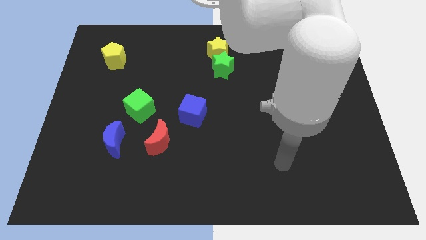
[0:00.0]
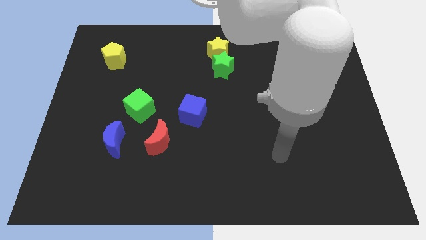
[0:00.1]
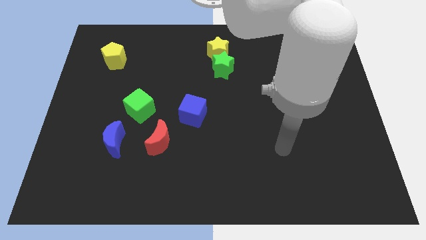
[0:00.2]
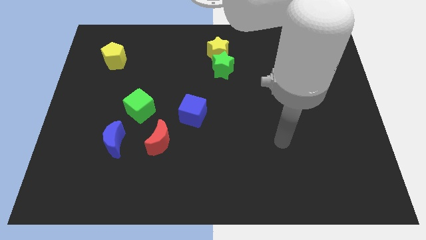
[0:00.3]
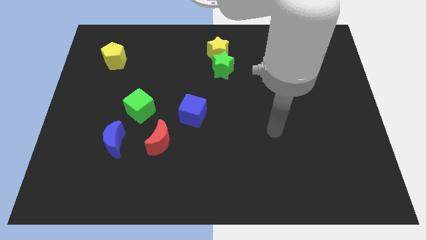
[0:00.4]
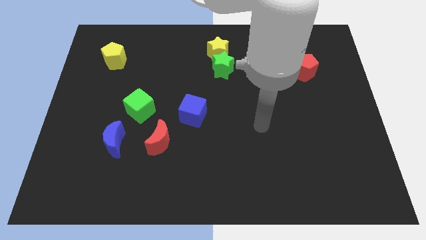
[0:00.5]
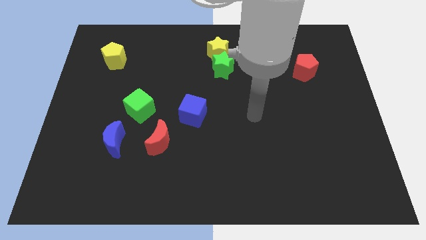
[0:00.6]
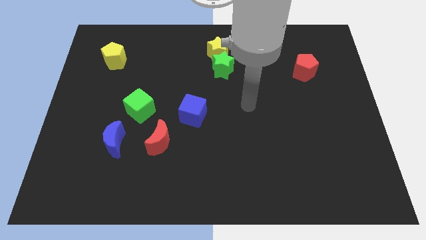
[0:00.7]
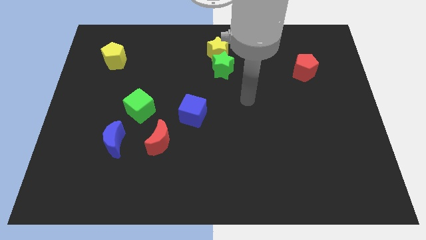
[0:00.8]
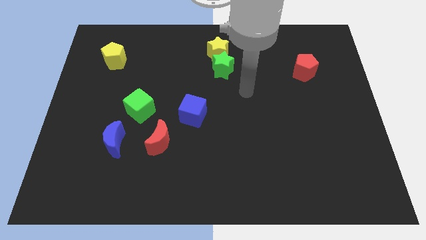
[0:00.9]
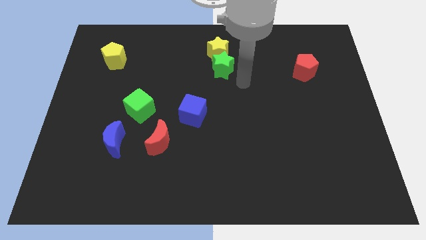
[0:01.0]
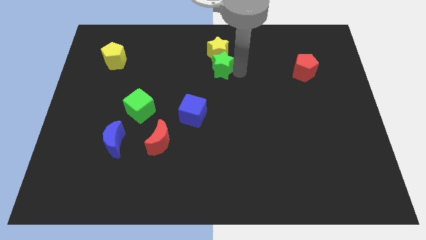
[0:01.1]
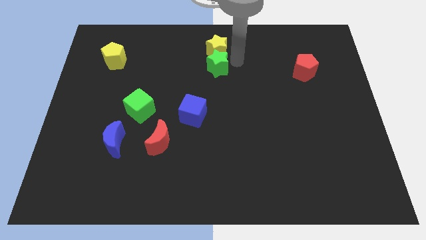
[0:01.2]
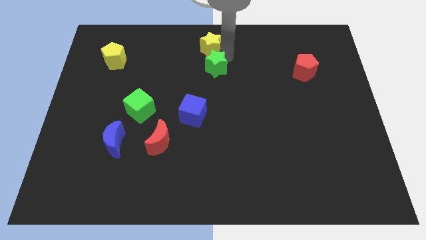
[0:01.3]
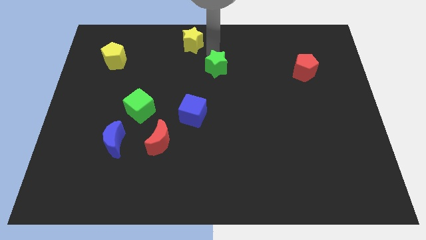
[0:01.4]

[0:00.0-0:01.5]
move the green star away from the yellow star

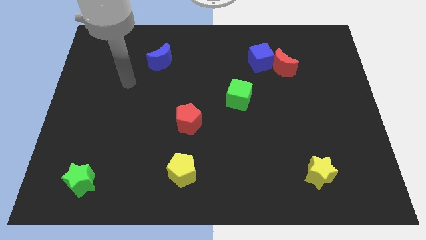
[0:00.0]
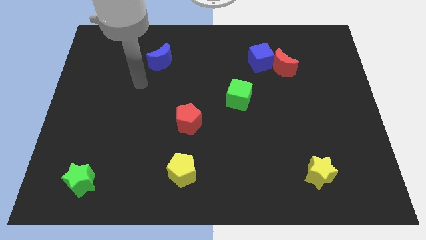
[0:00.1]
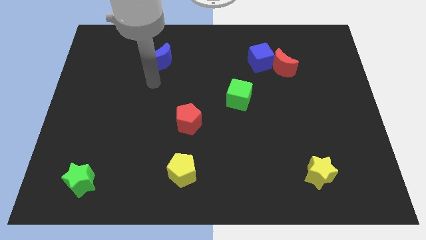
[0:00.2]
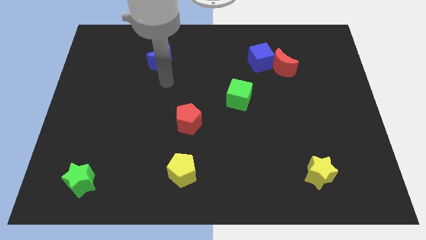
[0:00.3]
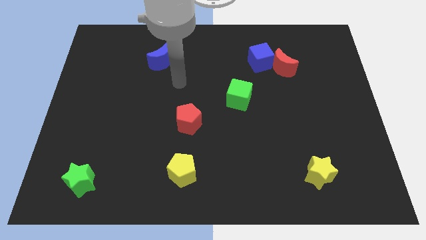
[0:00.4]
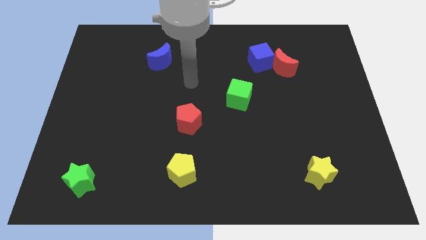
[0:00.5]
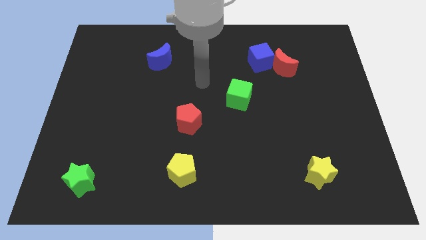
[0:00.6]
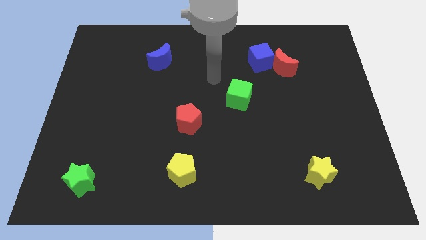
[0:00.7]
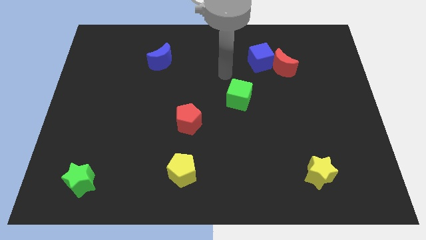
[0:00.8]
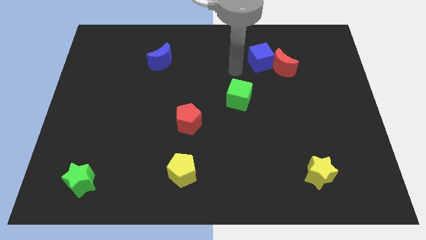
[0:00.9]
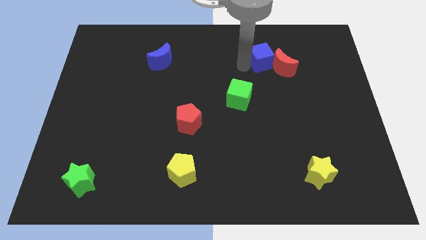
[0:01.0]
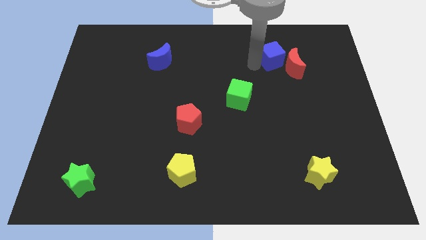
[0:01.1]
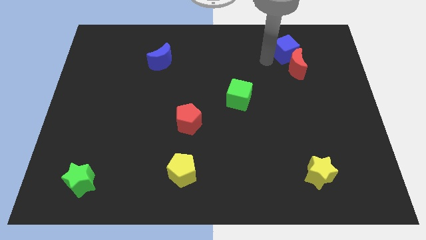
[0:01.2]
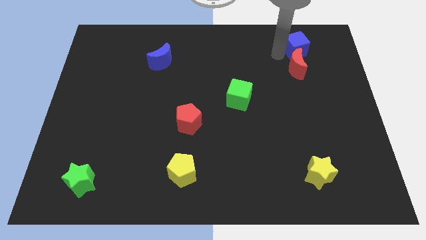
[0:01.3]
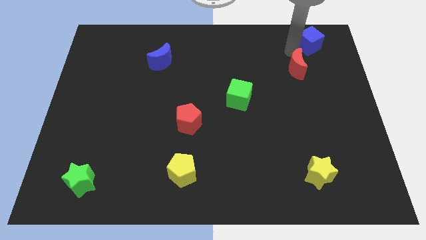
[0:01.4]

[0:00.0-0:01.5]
move the red moon away from the blue cube

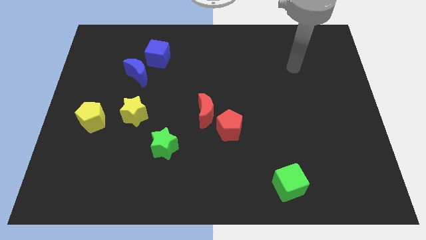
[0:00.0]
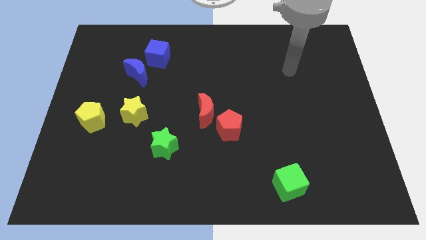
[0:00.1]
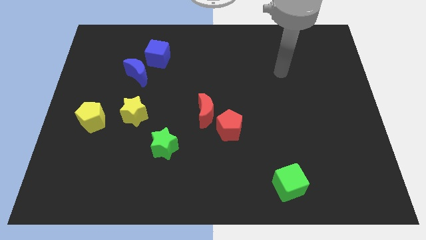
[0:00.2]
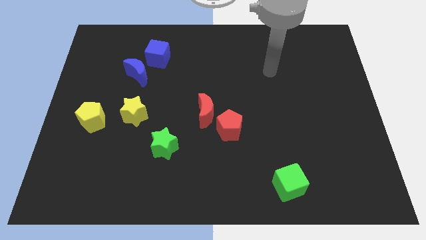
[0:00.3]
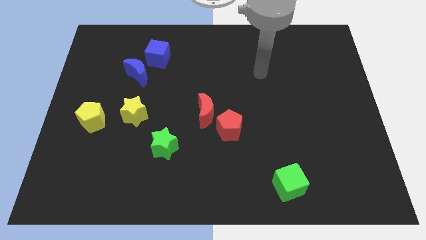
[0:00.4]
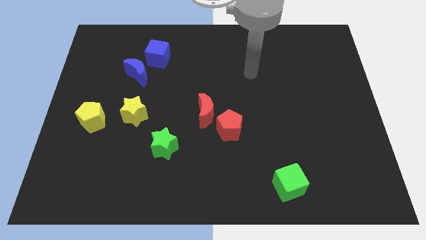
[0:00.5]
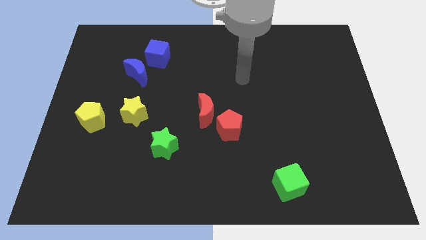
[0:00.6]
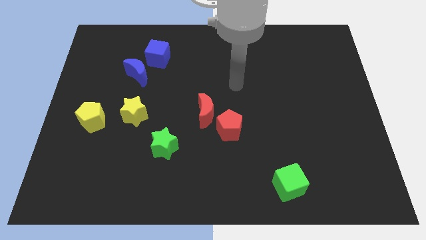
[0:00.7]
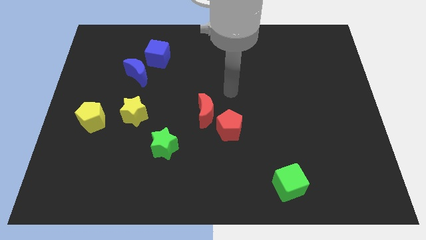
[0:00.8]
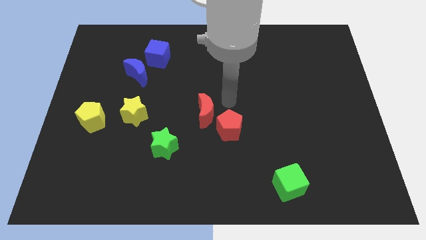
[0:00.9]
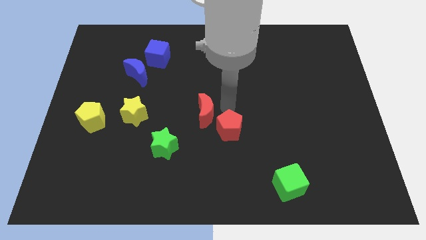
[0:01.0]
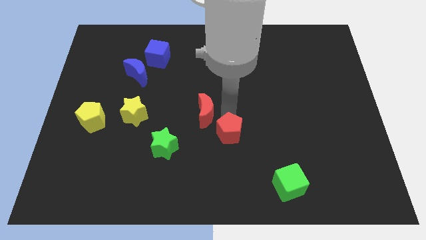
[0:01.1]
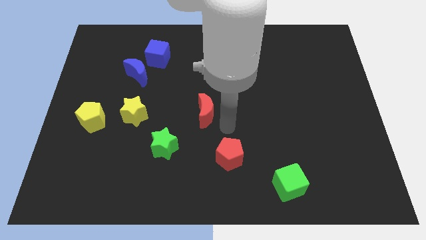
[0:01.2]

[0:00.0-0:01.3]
separate the red moon from the red pentagon

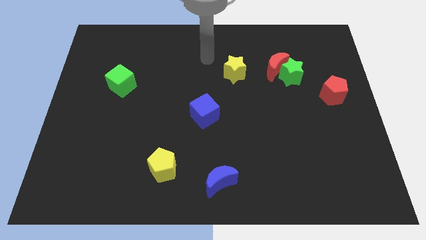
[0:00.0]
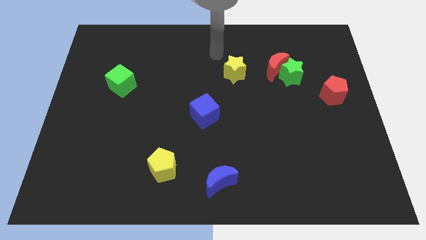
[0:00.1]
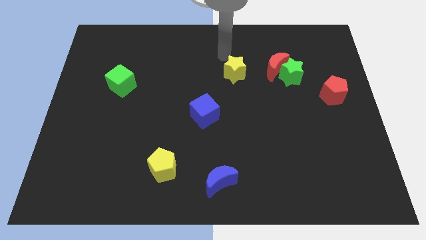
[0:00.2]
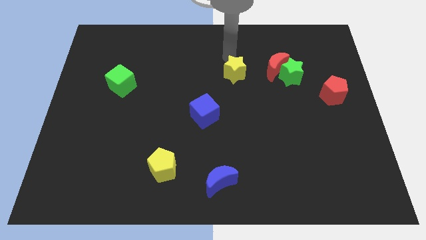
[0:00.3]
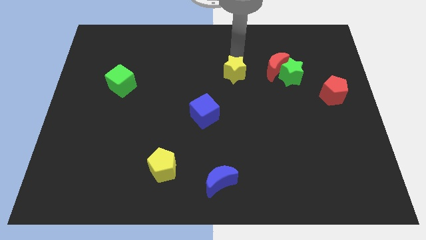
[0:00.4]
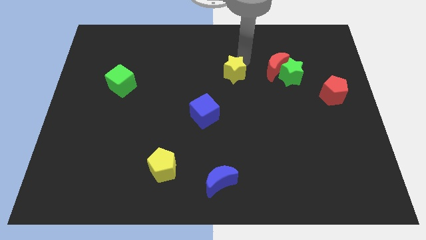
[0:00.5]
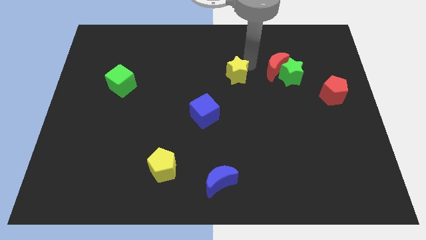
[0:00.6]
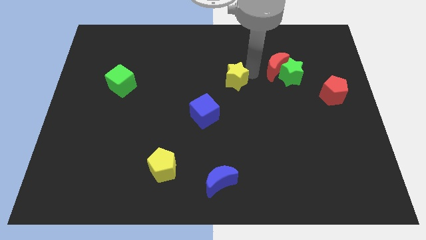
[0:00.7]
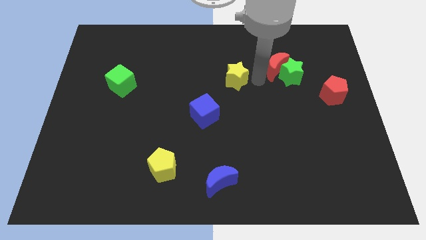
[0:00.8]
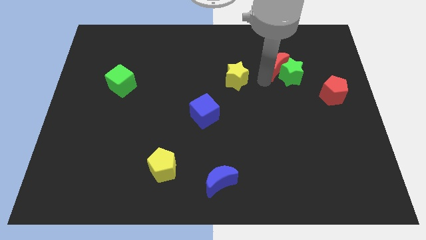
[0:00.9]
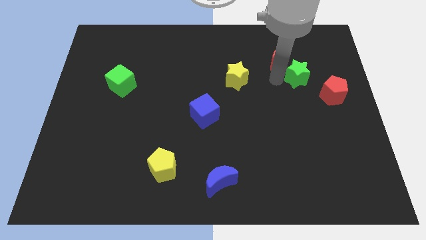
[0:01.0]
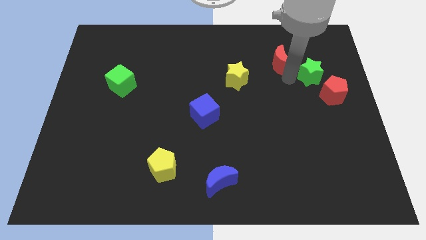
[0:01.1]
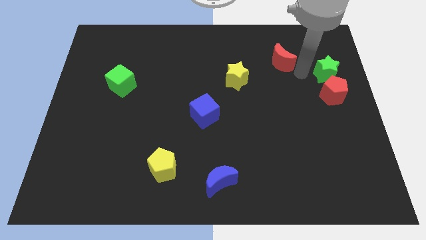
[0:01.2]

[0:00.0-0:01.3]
separate the red moon from the green star

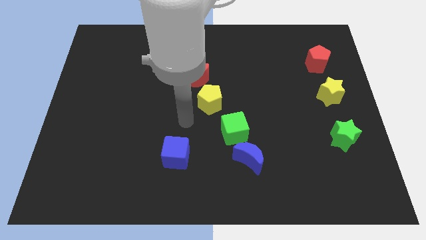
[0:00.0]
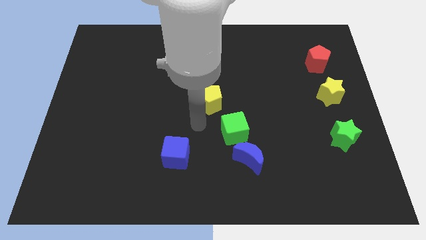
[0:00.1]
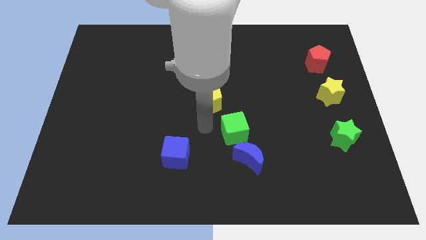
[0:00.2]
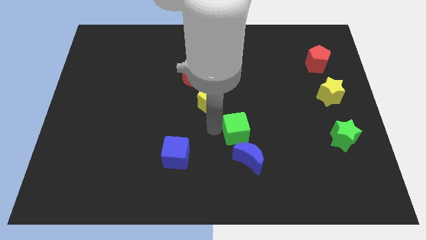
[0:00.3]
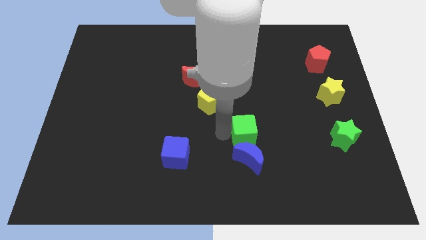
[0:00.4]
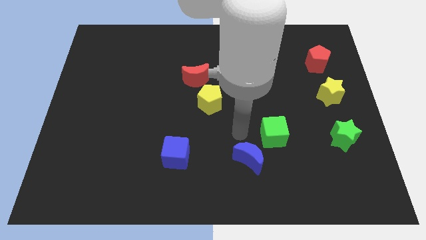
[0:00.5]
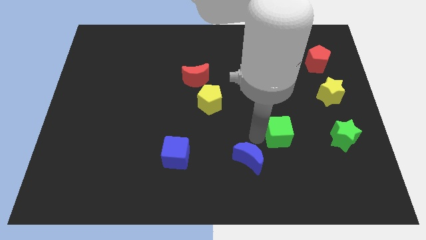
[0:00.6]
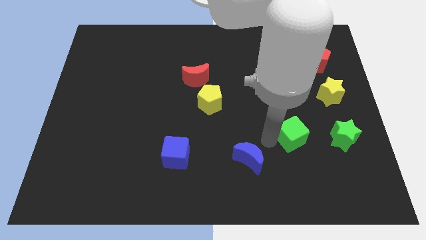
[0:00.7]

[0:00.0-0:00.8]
pull the blue moon apart from the green cube

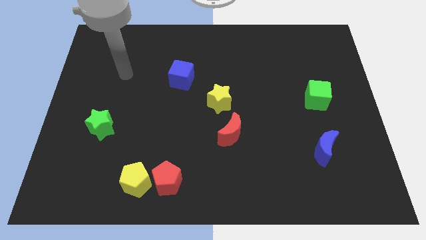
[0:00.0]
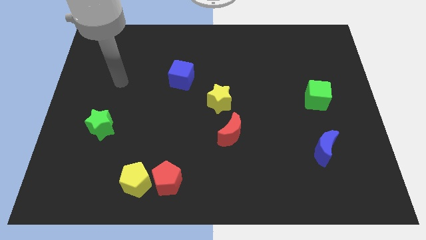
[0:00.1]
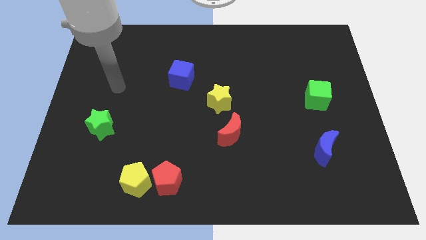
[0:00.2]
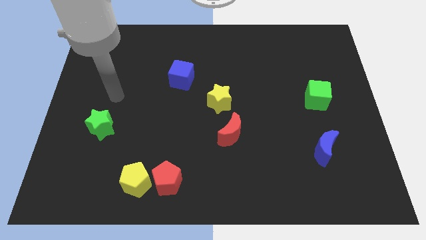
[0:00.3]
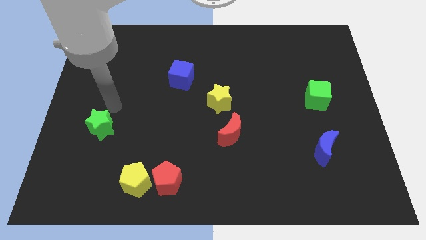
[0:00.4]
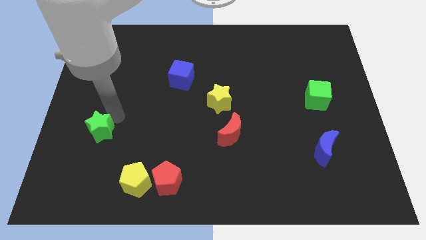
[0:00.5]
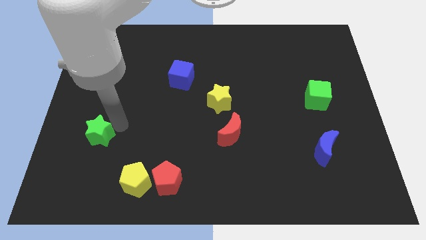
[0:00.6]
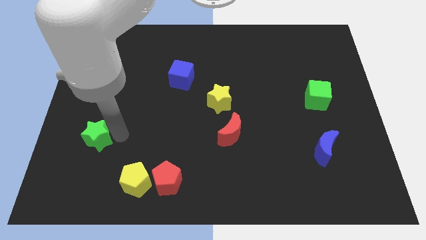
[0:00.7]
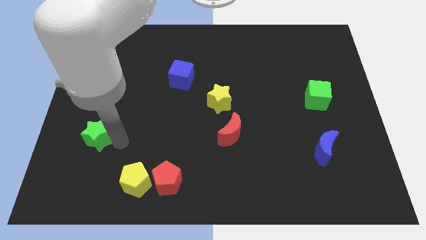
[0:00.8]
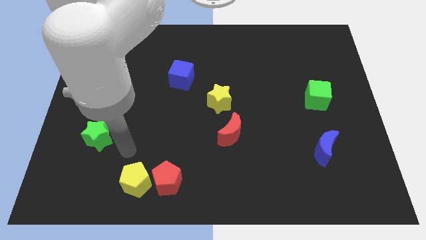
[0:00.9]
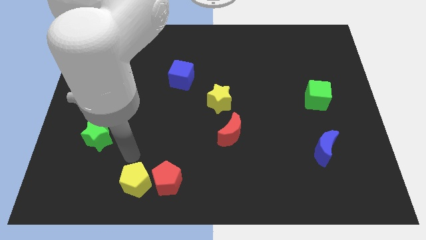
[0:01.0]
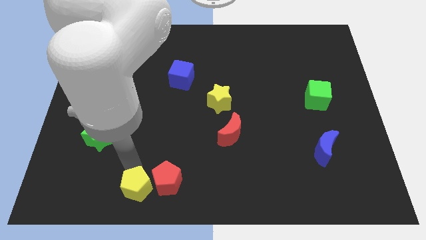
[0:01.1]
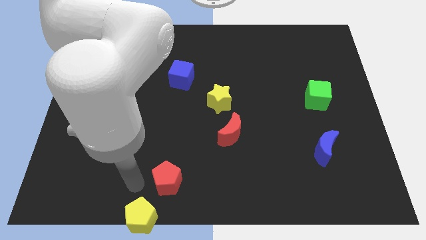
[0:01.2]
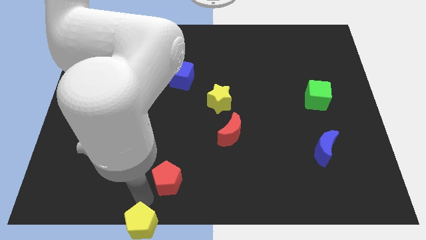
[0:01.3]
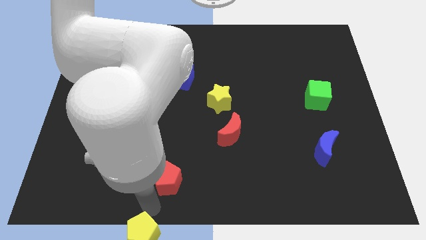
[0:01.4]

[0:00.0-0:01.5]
pull the red pentagon apart from the yellow pentagon

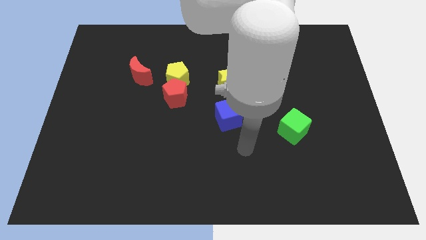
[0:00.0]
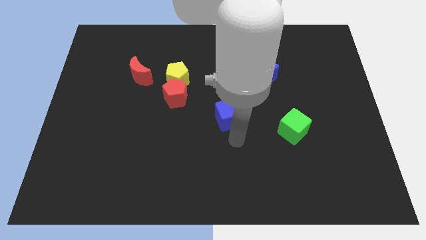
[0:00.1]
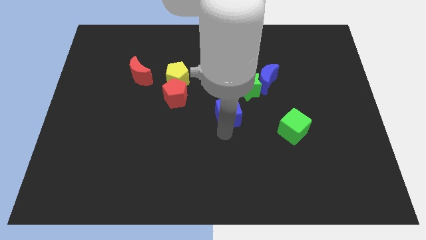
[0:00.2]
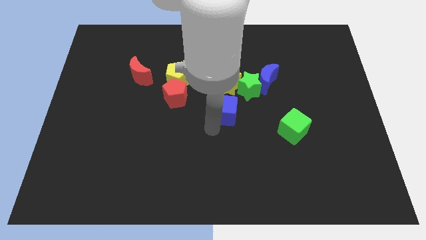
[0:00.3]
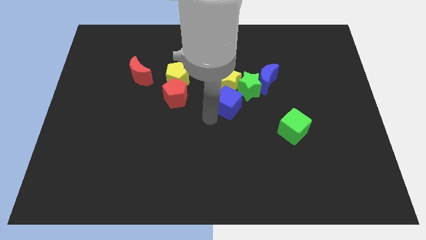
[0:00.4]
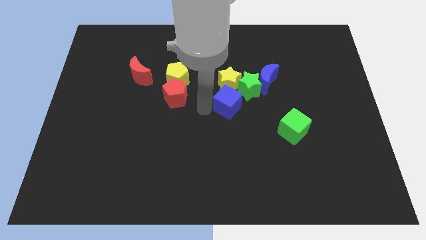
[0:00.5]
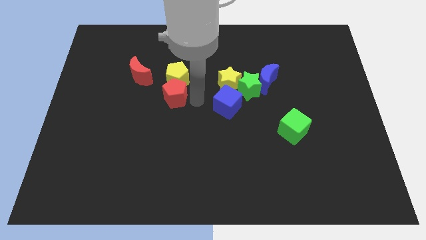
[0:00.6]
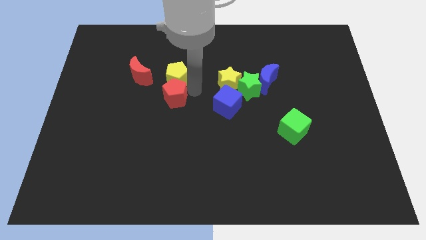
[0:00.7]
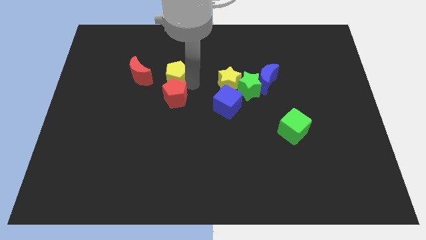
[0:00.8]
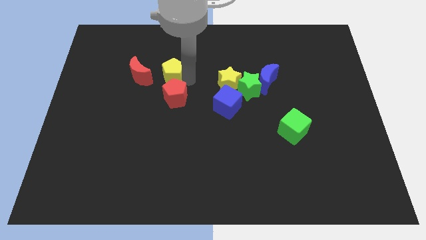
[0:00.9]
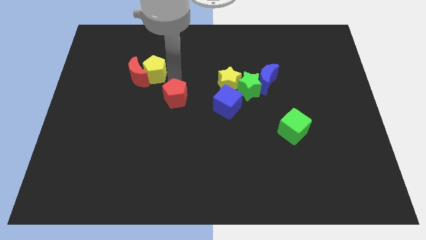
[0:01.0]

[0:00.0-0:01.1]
move the red pentagon away from the yellow pentagon

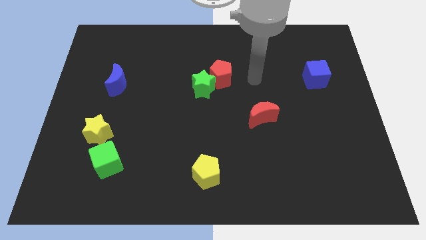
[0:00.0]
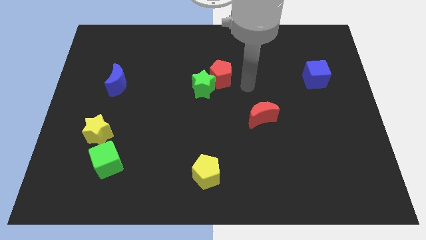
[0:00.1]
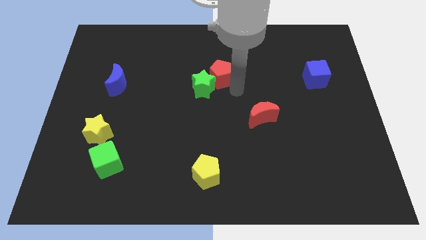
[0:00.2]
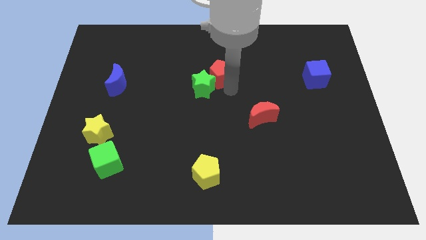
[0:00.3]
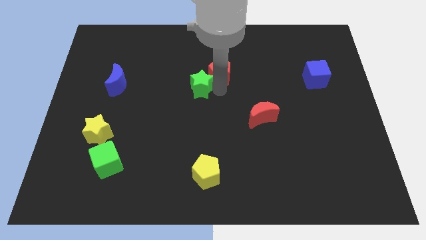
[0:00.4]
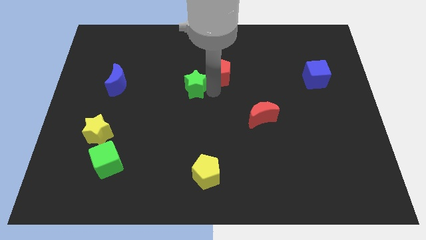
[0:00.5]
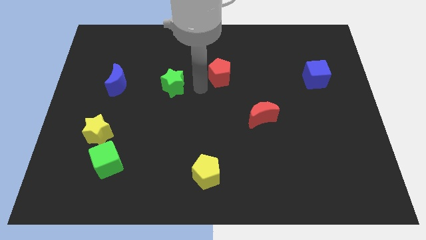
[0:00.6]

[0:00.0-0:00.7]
move the red pentagon away from the green star
